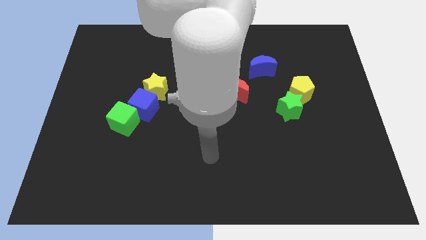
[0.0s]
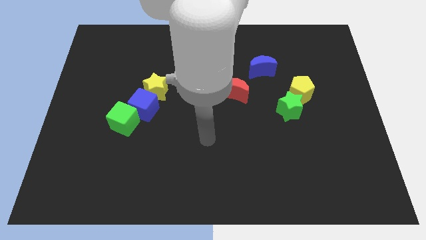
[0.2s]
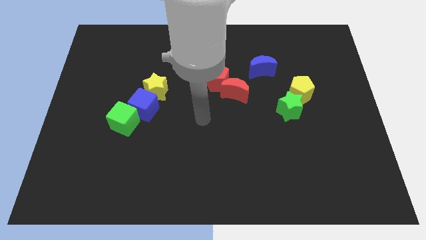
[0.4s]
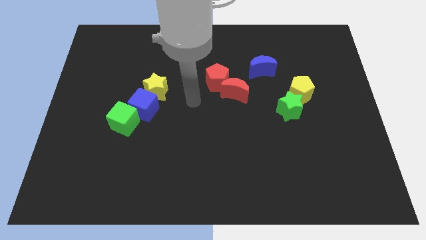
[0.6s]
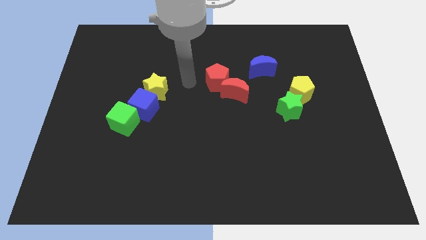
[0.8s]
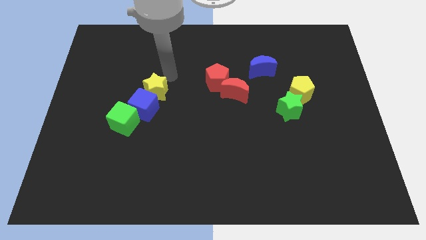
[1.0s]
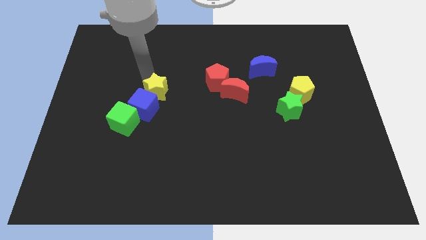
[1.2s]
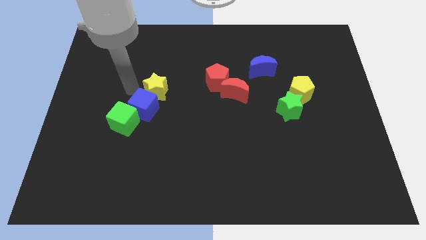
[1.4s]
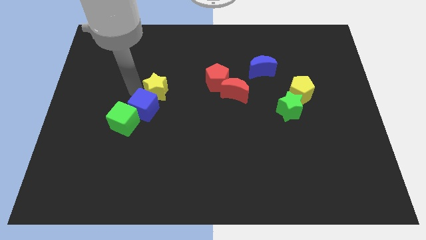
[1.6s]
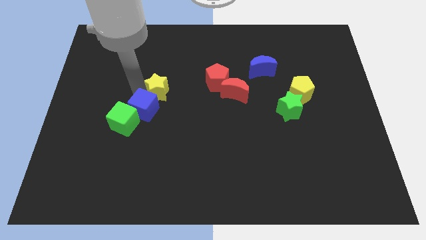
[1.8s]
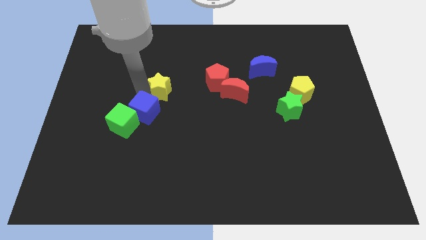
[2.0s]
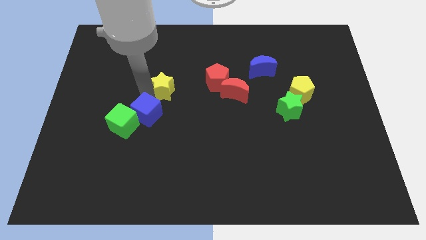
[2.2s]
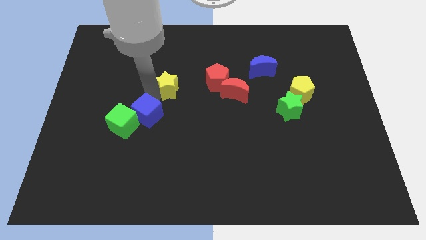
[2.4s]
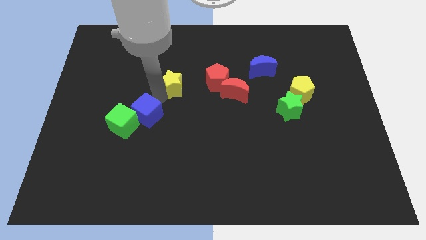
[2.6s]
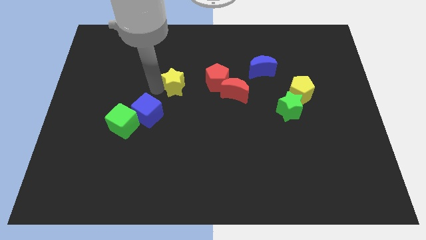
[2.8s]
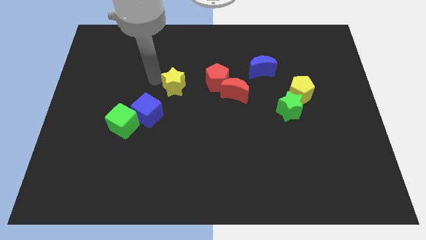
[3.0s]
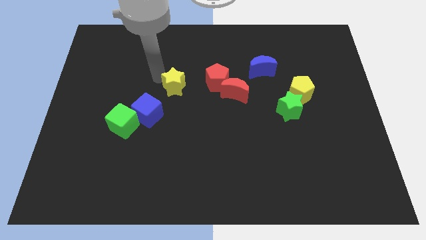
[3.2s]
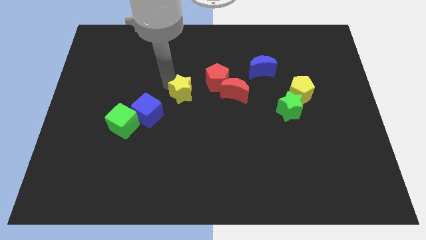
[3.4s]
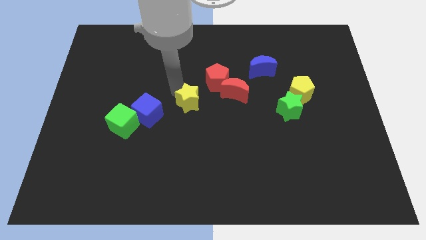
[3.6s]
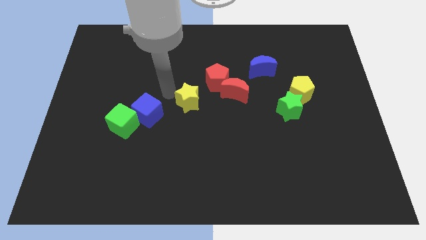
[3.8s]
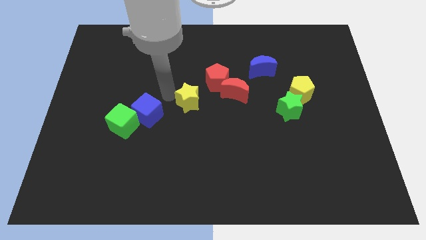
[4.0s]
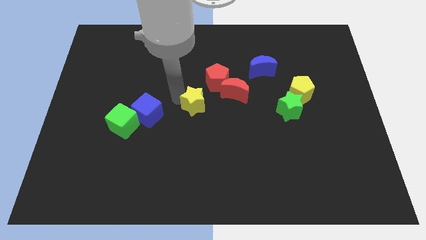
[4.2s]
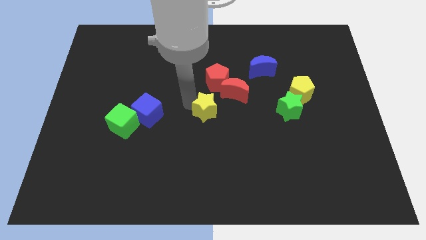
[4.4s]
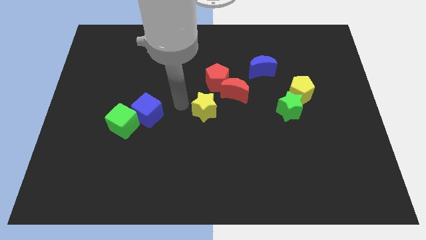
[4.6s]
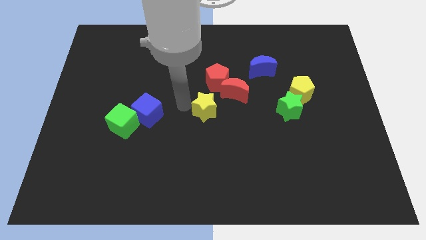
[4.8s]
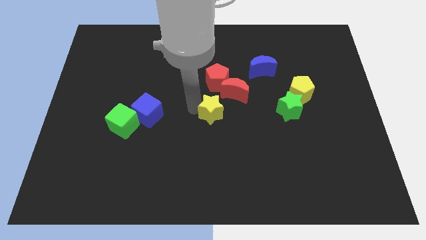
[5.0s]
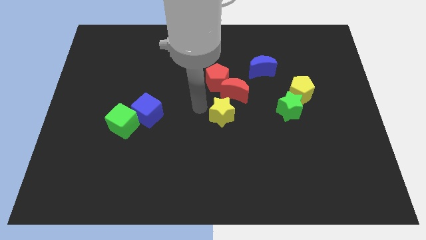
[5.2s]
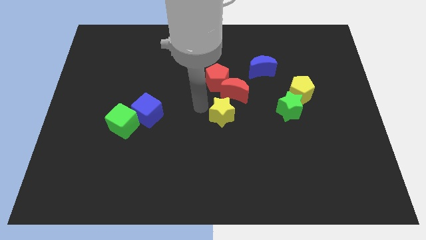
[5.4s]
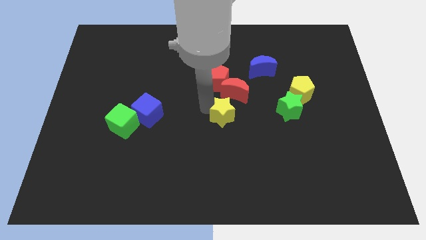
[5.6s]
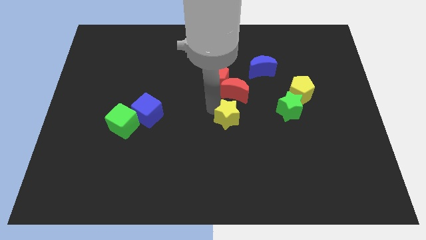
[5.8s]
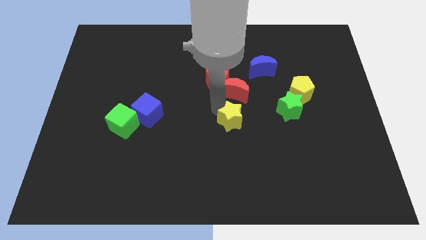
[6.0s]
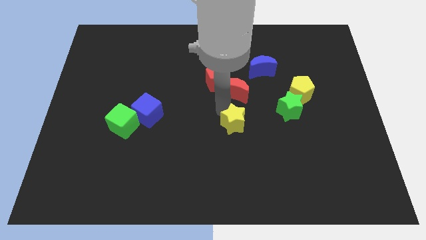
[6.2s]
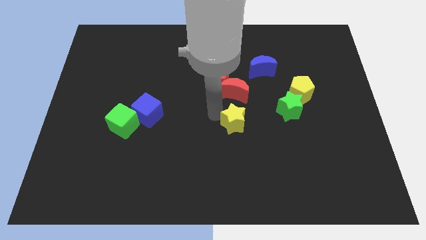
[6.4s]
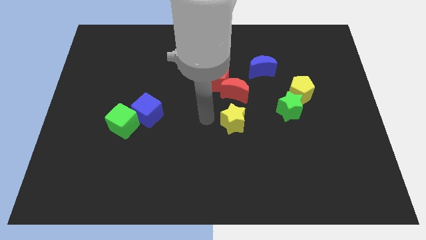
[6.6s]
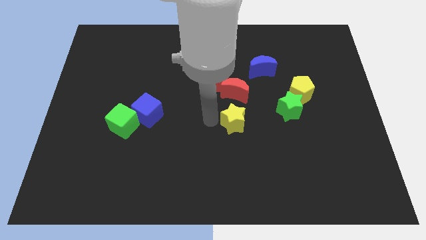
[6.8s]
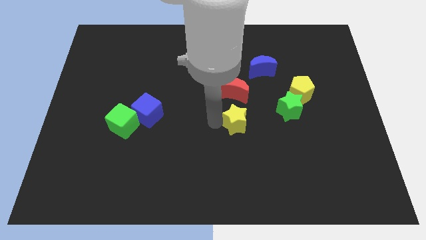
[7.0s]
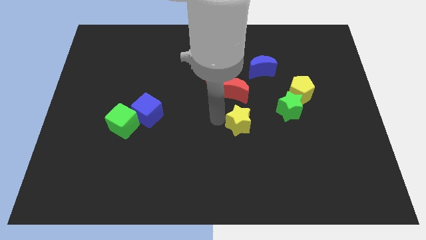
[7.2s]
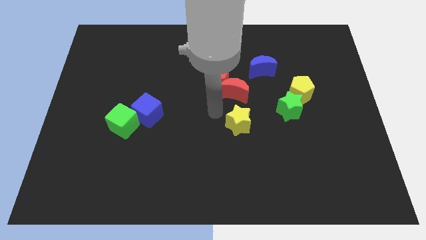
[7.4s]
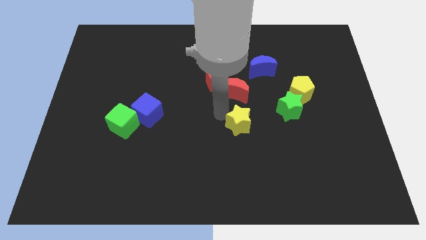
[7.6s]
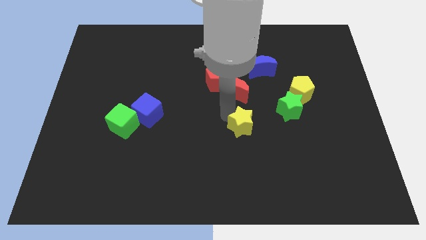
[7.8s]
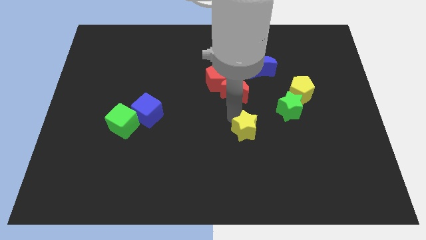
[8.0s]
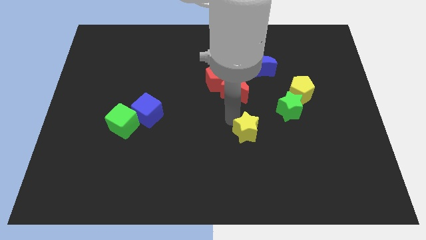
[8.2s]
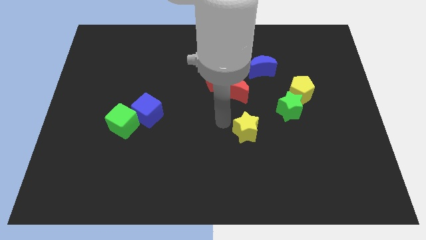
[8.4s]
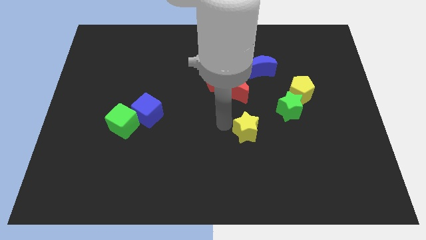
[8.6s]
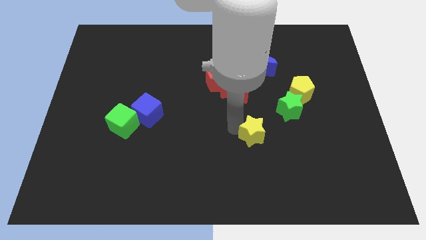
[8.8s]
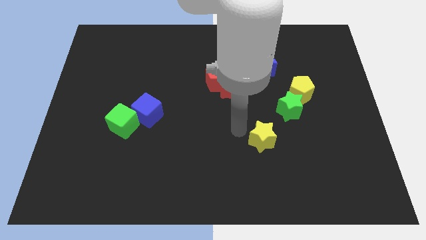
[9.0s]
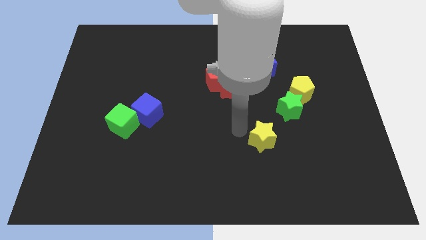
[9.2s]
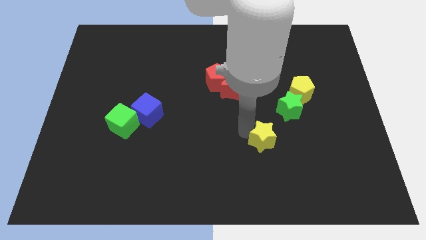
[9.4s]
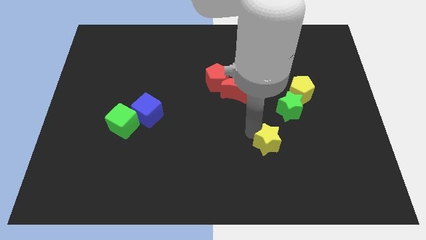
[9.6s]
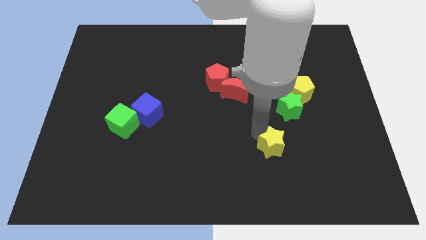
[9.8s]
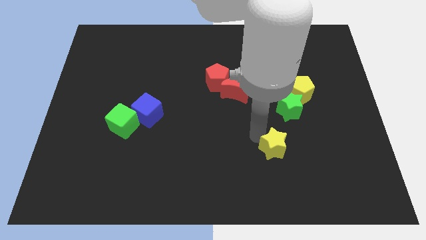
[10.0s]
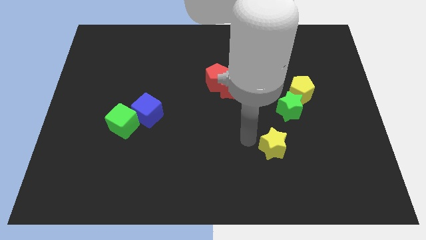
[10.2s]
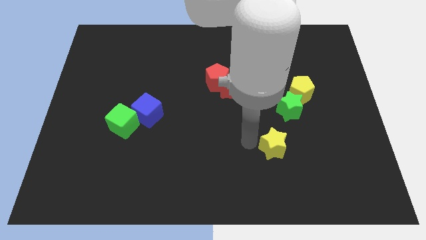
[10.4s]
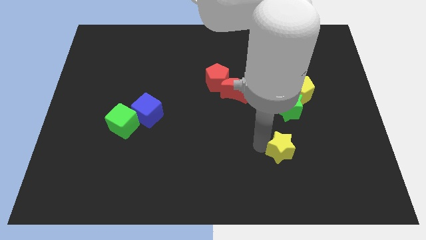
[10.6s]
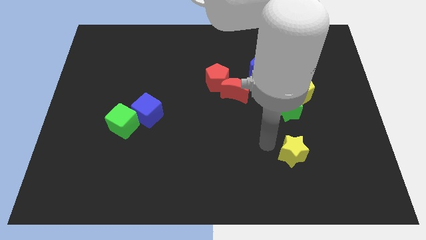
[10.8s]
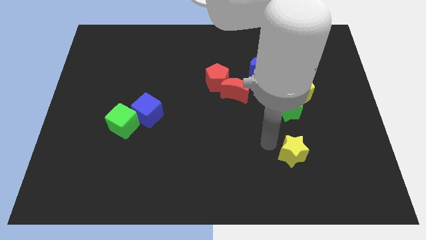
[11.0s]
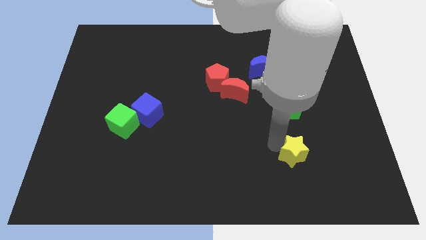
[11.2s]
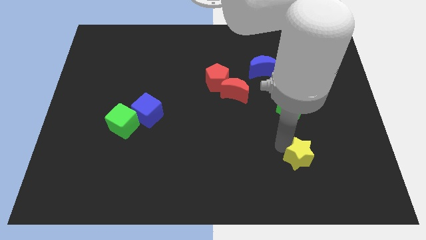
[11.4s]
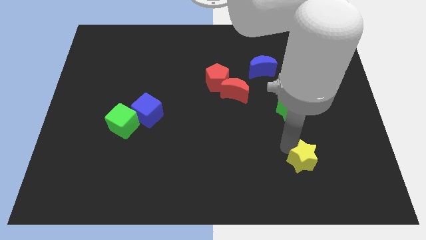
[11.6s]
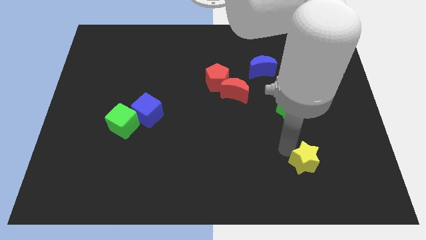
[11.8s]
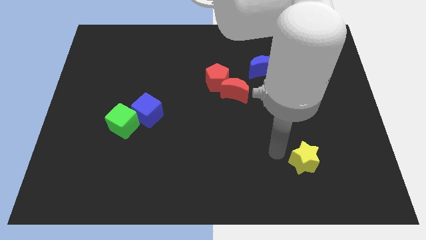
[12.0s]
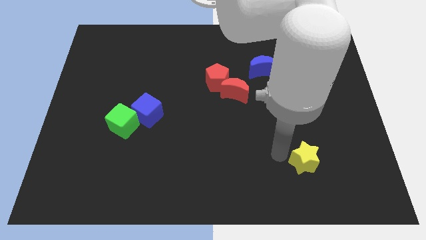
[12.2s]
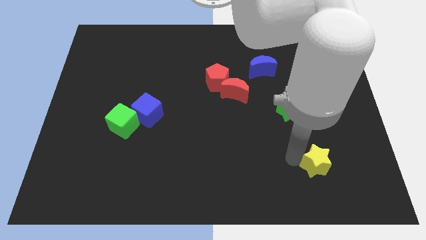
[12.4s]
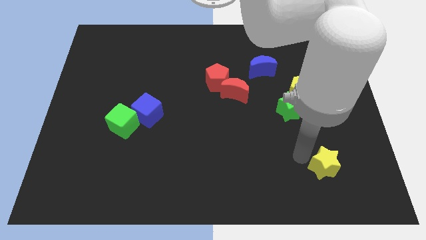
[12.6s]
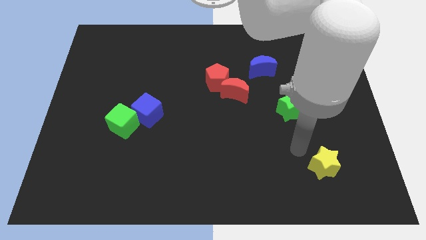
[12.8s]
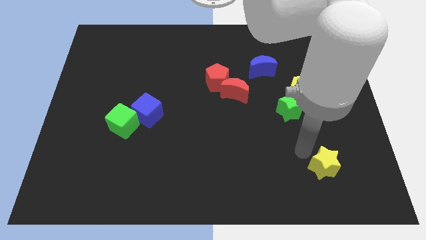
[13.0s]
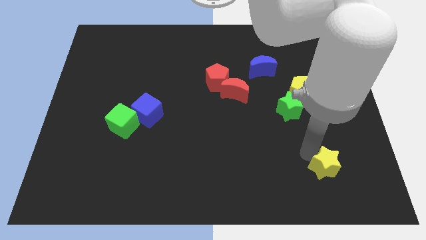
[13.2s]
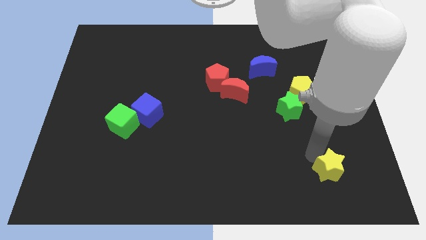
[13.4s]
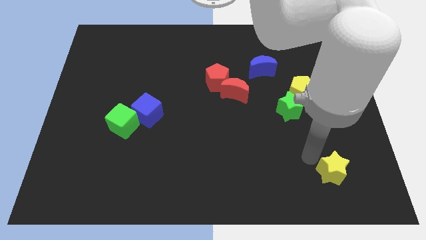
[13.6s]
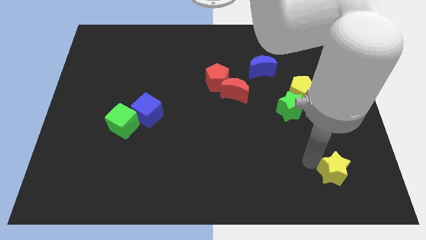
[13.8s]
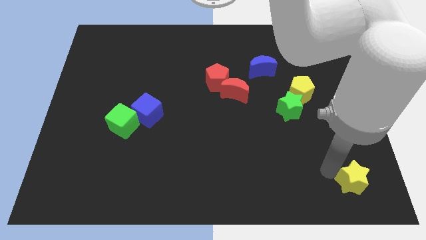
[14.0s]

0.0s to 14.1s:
move the yellow star to the bottom right

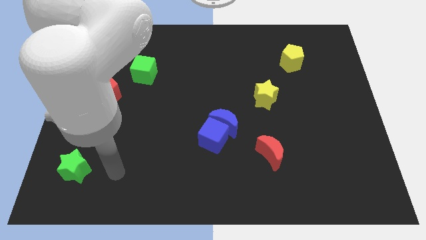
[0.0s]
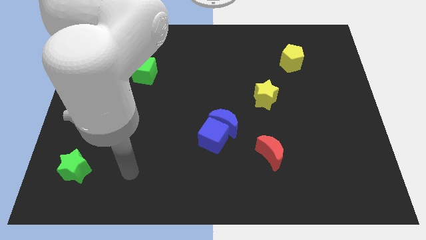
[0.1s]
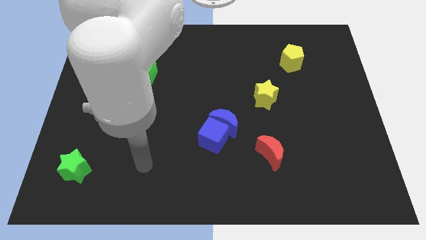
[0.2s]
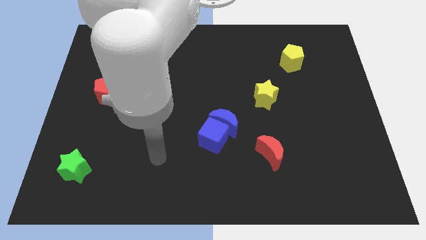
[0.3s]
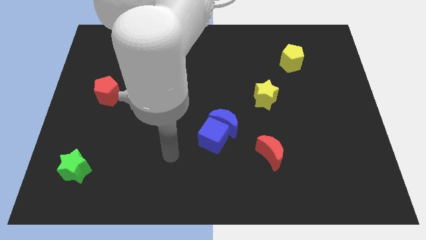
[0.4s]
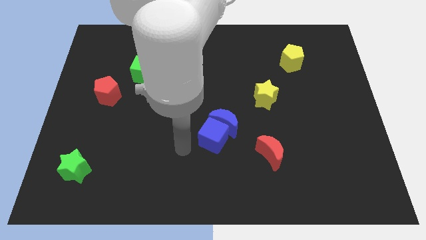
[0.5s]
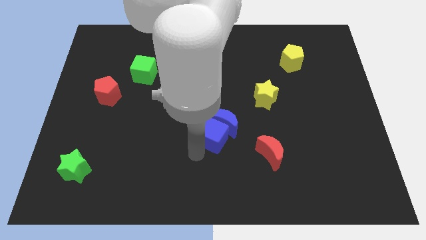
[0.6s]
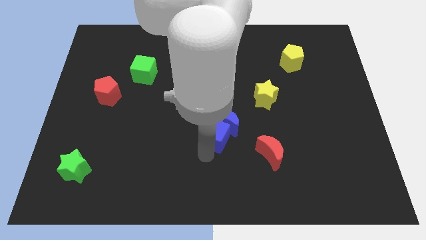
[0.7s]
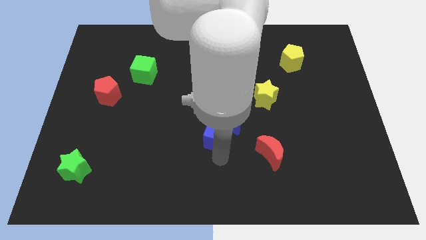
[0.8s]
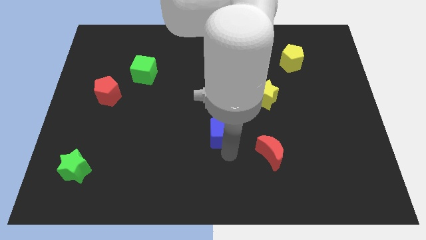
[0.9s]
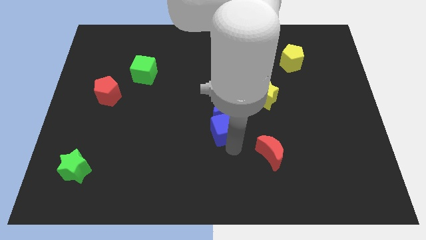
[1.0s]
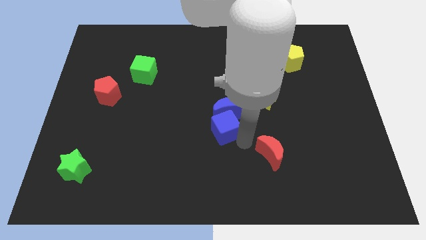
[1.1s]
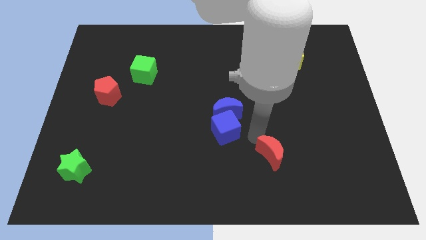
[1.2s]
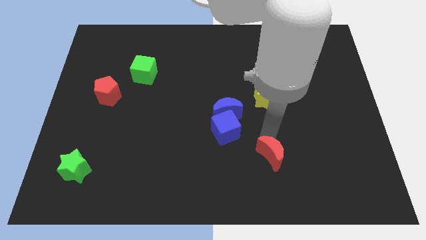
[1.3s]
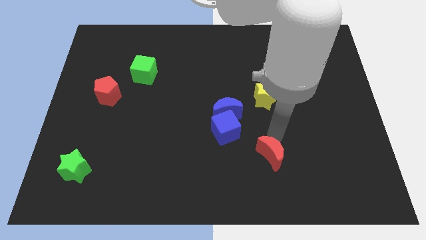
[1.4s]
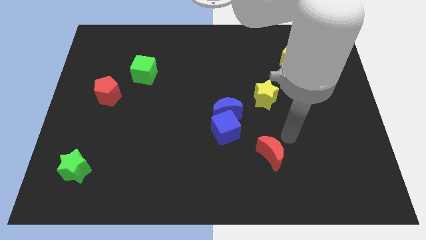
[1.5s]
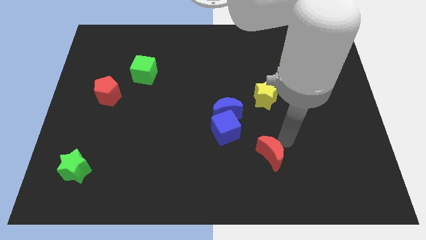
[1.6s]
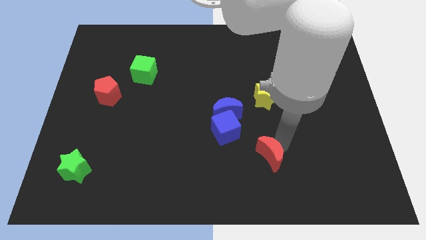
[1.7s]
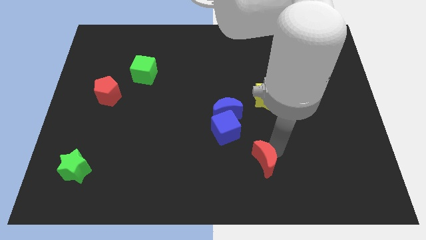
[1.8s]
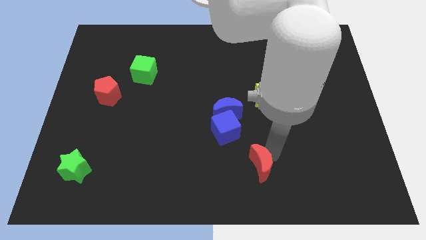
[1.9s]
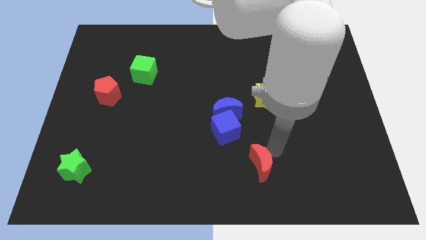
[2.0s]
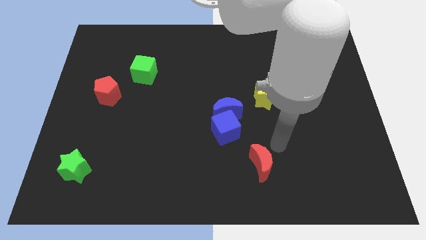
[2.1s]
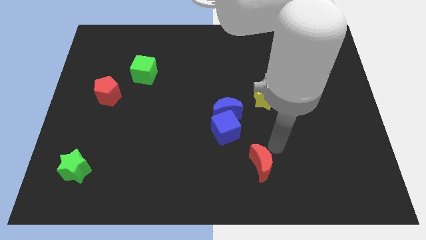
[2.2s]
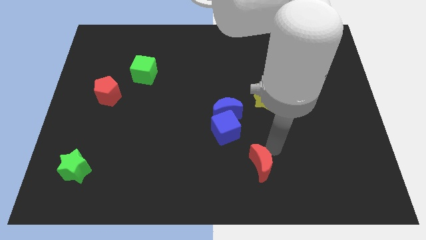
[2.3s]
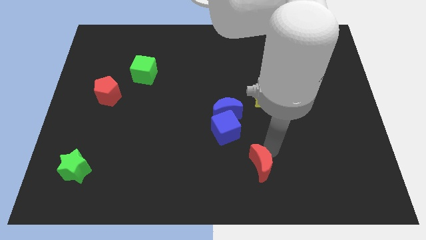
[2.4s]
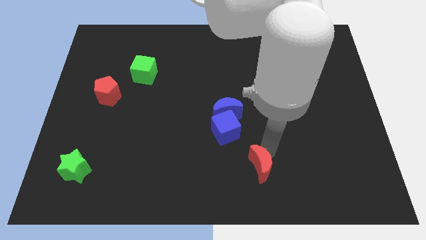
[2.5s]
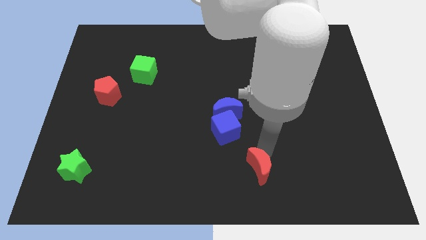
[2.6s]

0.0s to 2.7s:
move the red moon to the bottom side
